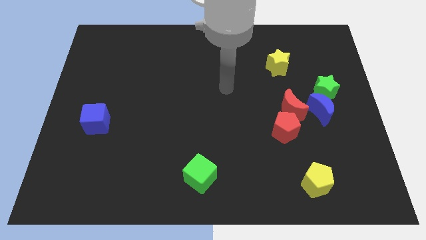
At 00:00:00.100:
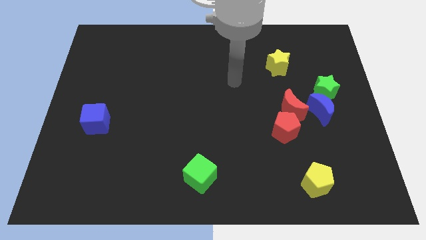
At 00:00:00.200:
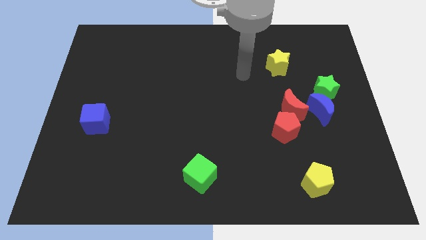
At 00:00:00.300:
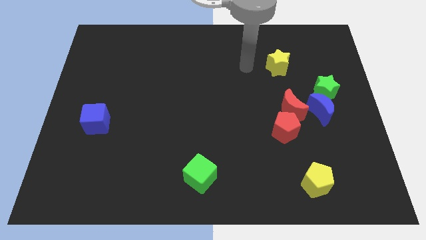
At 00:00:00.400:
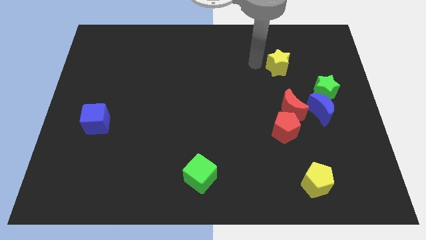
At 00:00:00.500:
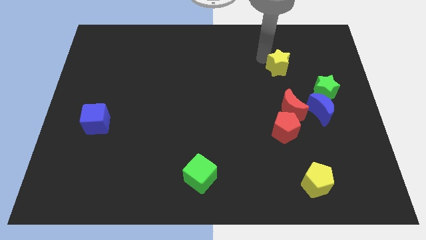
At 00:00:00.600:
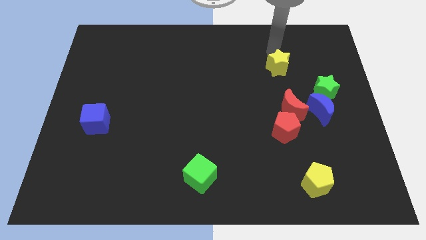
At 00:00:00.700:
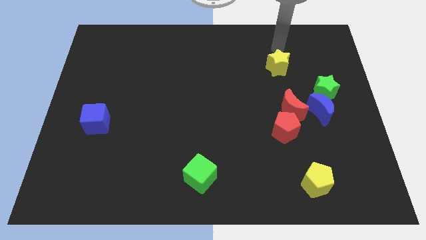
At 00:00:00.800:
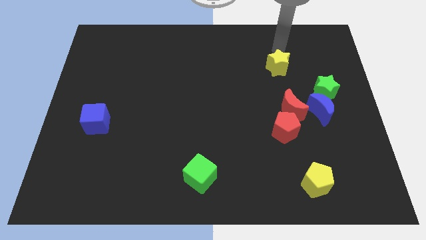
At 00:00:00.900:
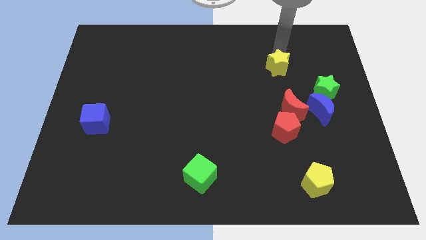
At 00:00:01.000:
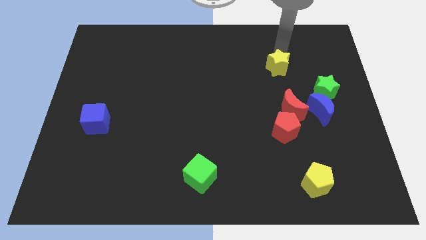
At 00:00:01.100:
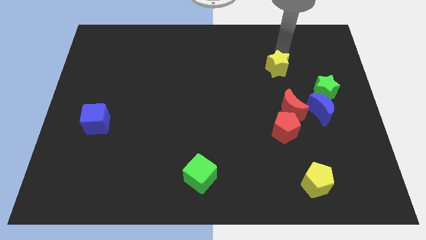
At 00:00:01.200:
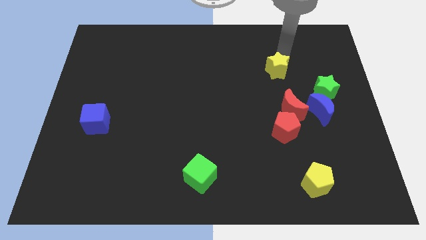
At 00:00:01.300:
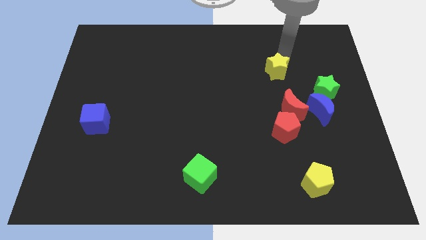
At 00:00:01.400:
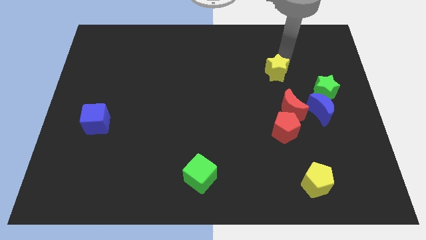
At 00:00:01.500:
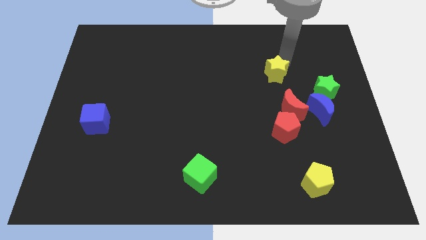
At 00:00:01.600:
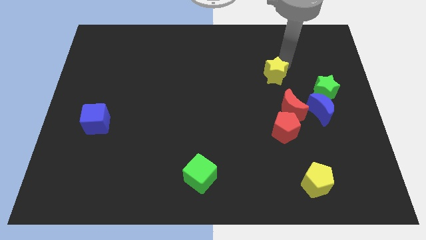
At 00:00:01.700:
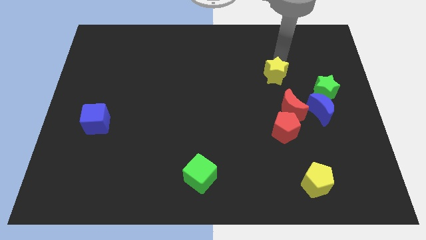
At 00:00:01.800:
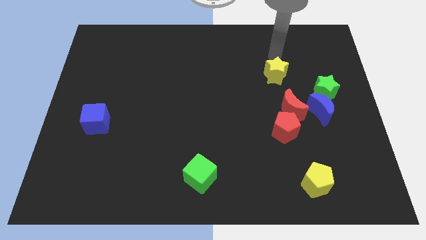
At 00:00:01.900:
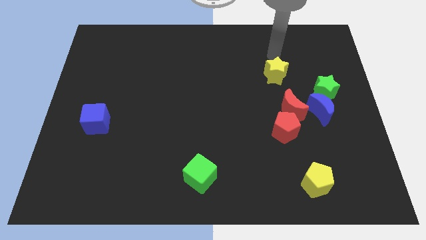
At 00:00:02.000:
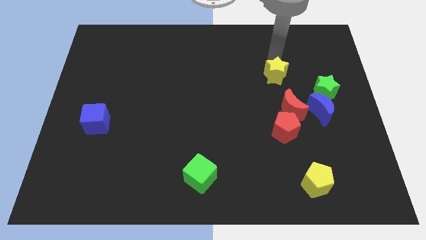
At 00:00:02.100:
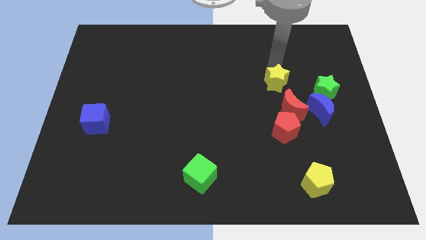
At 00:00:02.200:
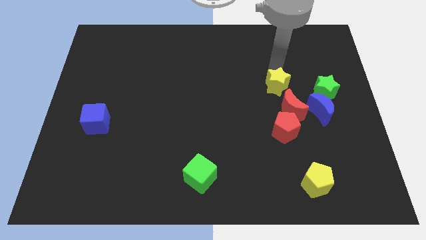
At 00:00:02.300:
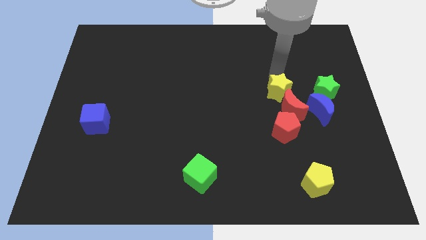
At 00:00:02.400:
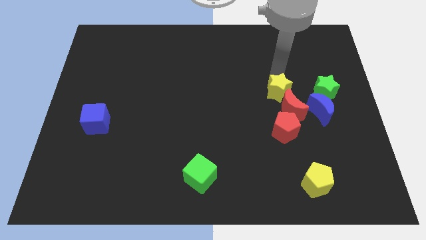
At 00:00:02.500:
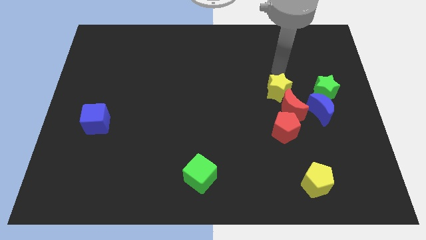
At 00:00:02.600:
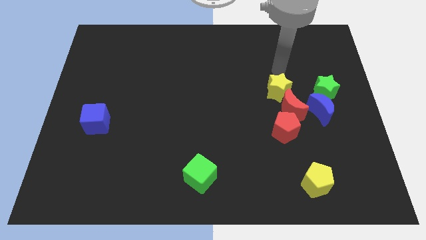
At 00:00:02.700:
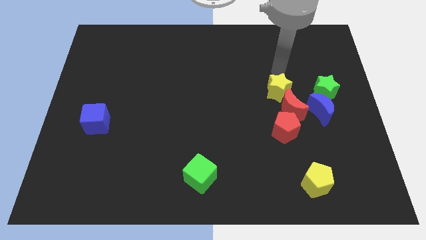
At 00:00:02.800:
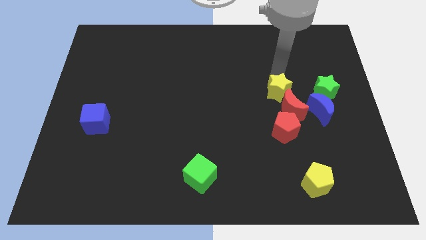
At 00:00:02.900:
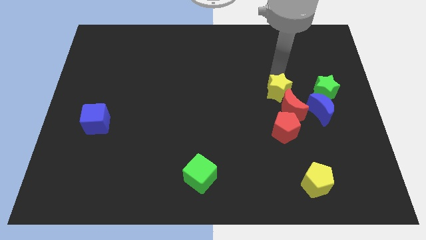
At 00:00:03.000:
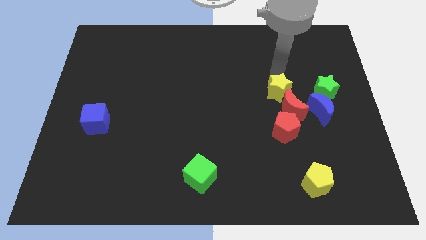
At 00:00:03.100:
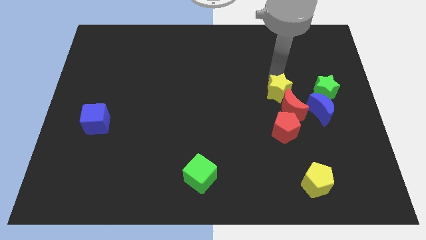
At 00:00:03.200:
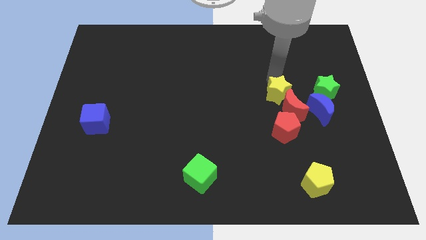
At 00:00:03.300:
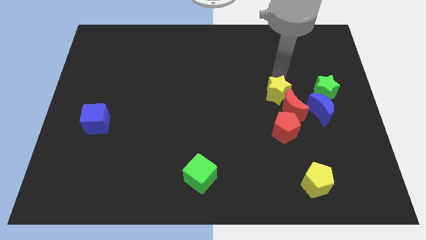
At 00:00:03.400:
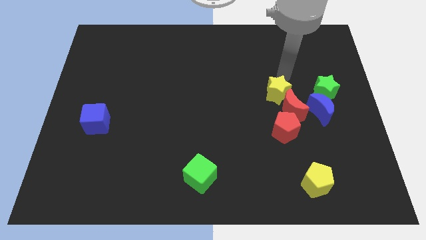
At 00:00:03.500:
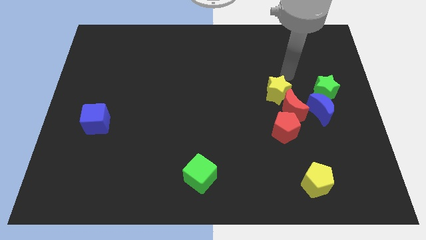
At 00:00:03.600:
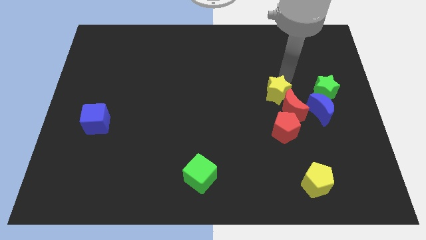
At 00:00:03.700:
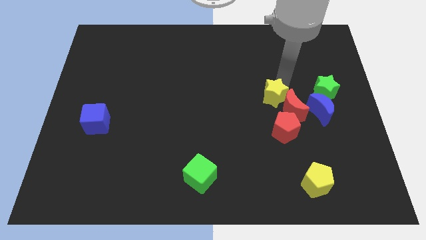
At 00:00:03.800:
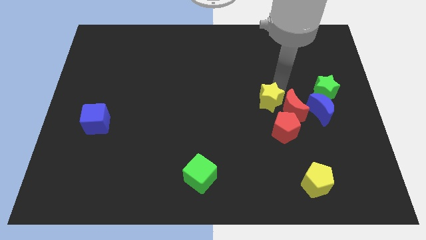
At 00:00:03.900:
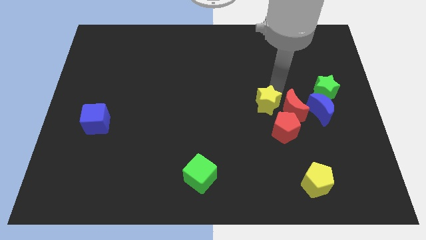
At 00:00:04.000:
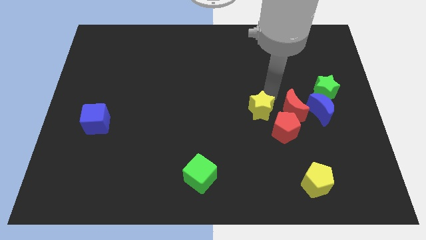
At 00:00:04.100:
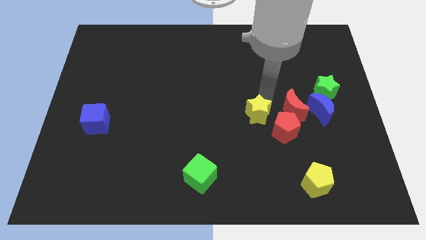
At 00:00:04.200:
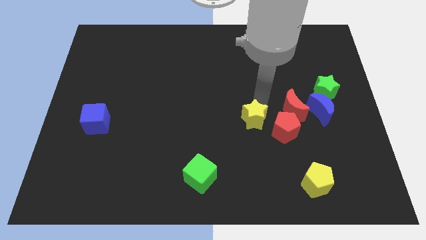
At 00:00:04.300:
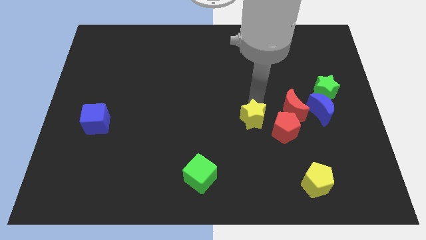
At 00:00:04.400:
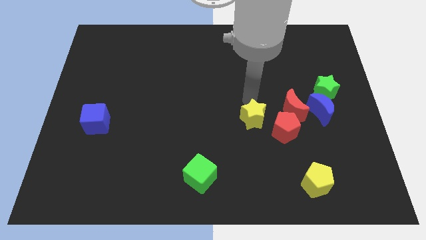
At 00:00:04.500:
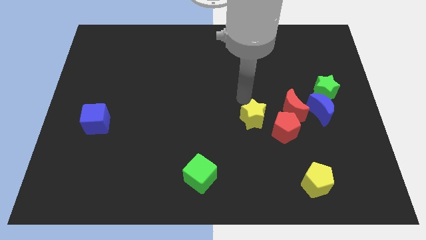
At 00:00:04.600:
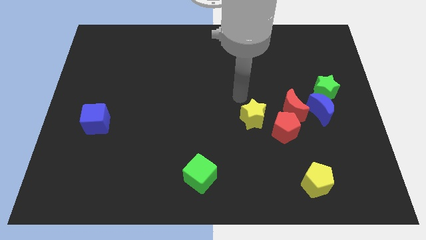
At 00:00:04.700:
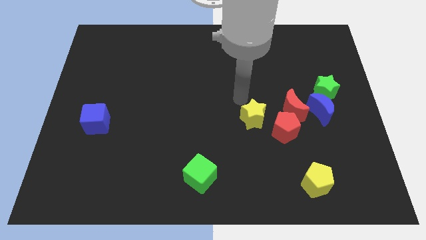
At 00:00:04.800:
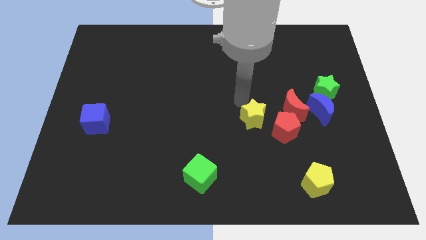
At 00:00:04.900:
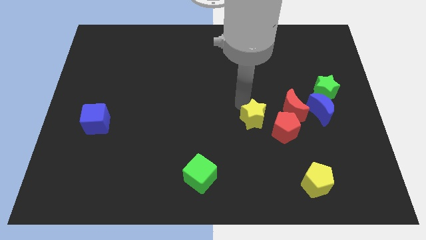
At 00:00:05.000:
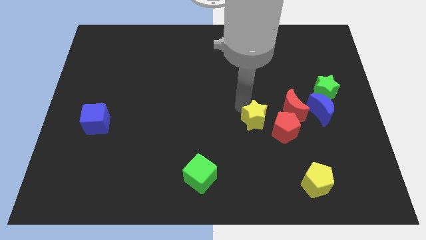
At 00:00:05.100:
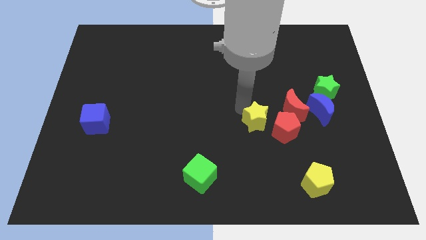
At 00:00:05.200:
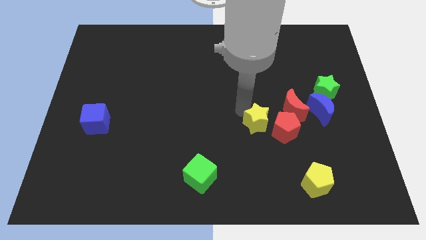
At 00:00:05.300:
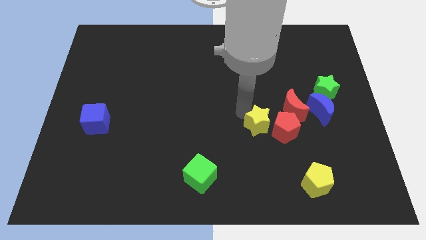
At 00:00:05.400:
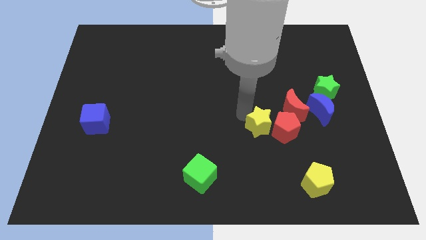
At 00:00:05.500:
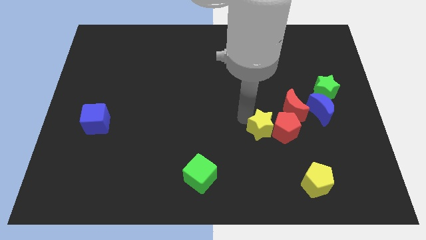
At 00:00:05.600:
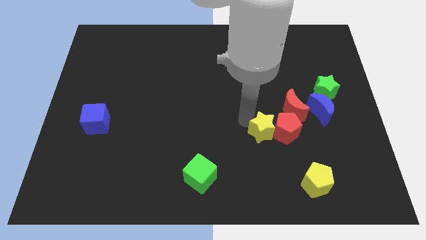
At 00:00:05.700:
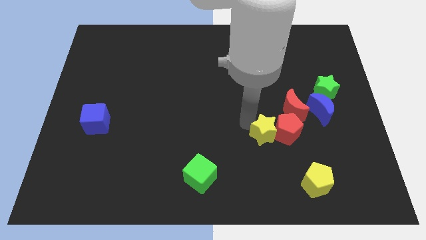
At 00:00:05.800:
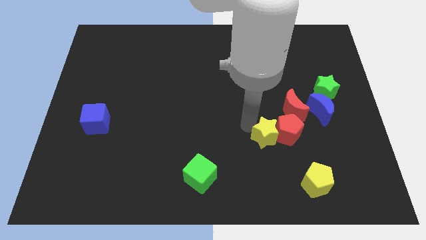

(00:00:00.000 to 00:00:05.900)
slide the yellow star down

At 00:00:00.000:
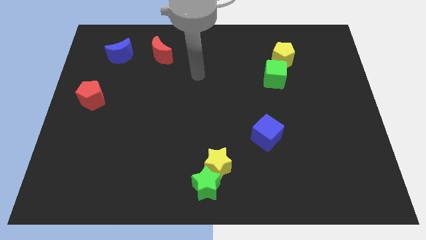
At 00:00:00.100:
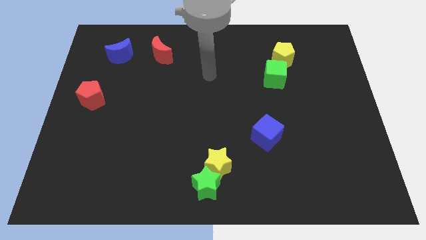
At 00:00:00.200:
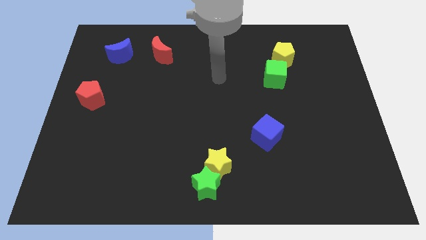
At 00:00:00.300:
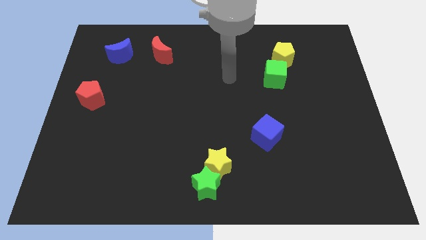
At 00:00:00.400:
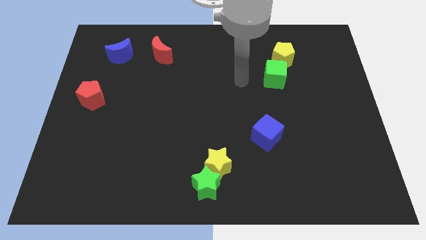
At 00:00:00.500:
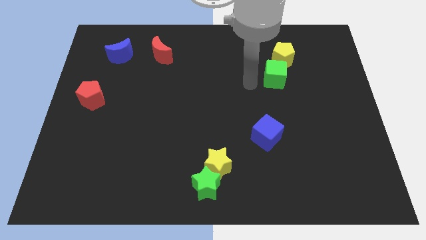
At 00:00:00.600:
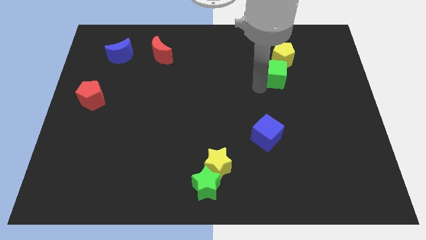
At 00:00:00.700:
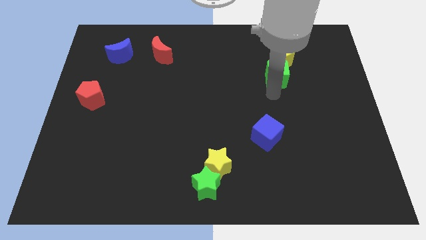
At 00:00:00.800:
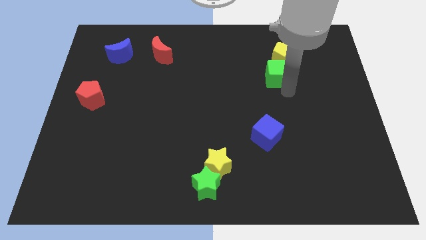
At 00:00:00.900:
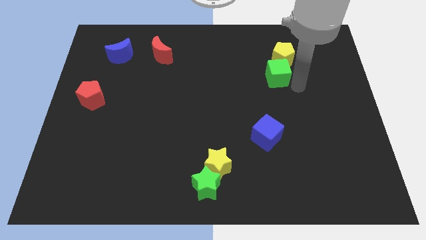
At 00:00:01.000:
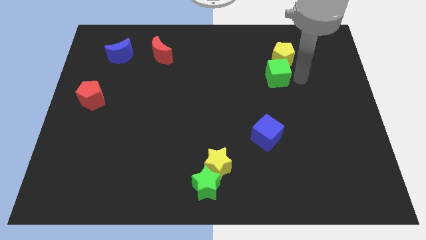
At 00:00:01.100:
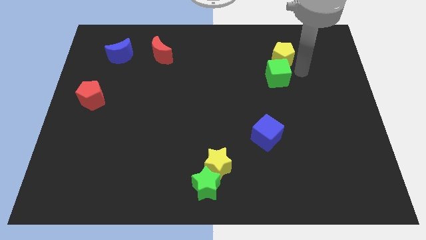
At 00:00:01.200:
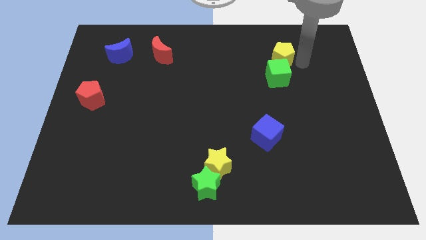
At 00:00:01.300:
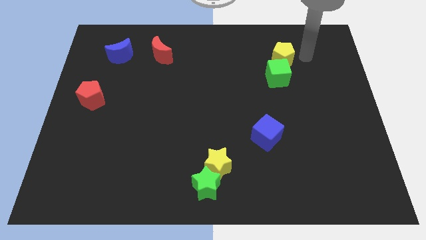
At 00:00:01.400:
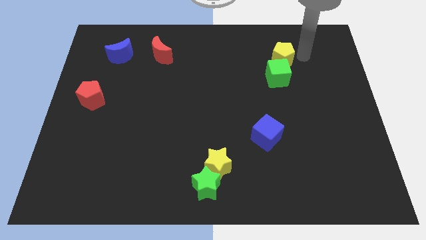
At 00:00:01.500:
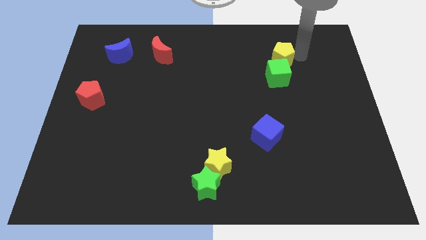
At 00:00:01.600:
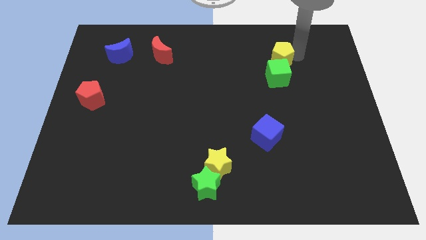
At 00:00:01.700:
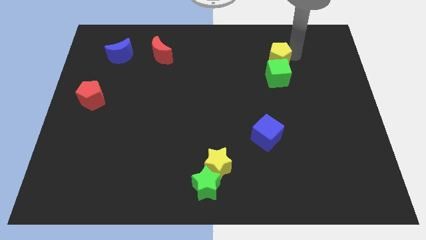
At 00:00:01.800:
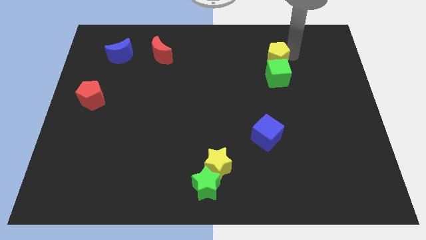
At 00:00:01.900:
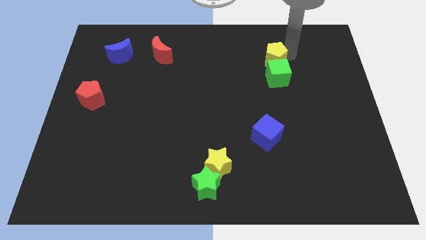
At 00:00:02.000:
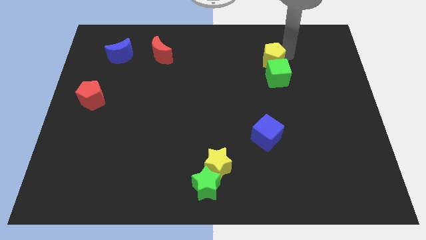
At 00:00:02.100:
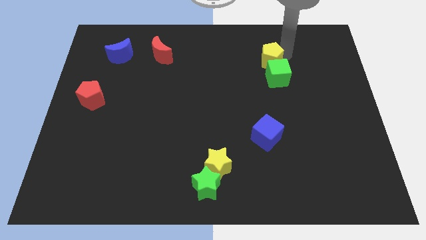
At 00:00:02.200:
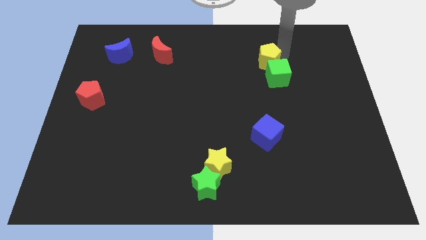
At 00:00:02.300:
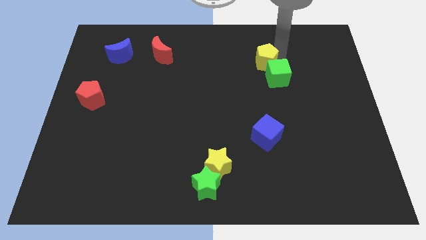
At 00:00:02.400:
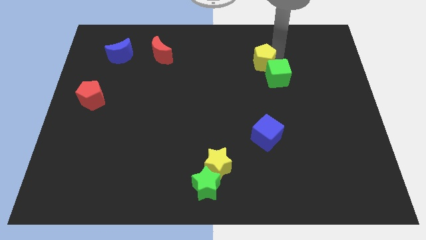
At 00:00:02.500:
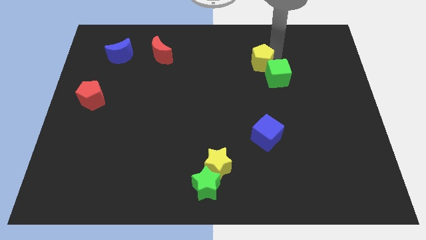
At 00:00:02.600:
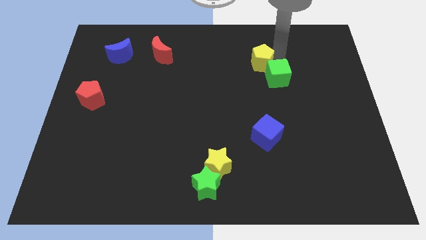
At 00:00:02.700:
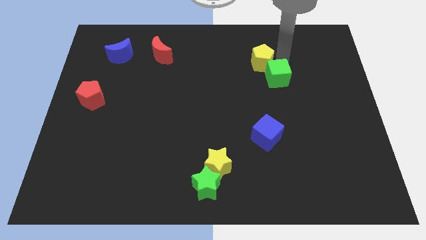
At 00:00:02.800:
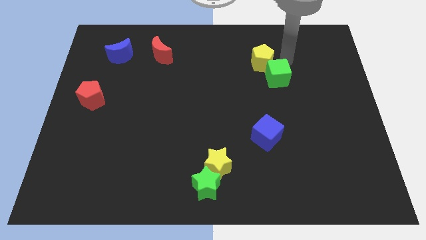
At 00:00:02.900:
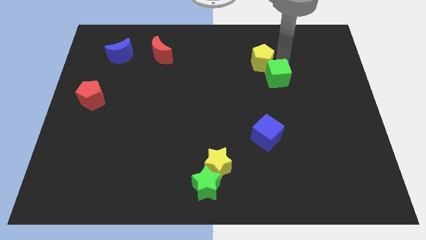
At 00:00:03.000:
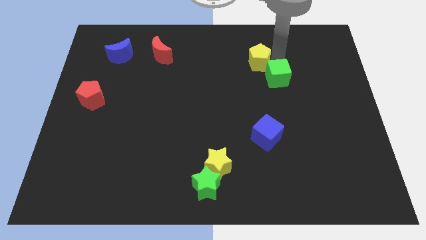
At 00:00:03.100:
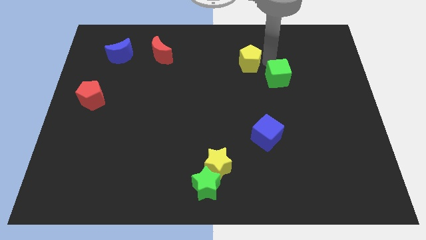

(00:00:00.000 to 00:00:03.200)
slide the yellow pentagon to the left a bit
